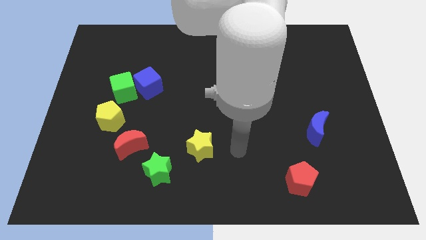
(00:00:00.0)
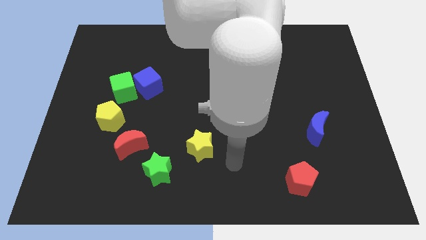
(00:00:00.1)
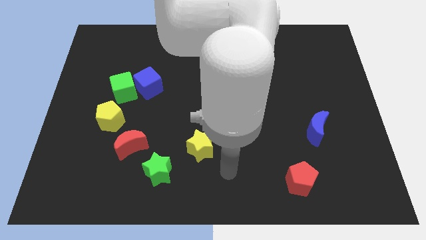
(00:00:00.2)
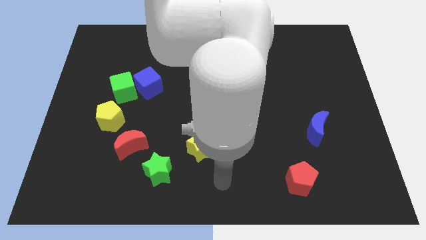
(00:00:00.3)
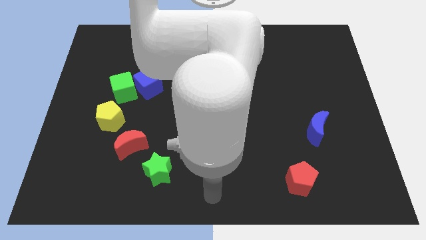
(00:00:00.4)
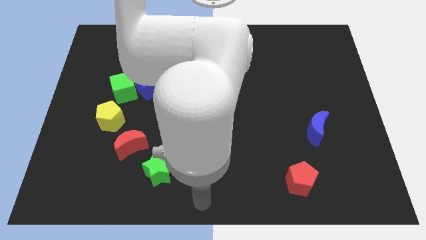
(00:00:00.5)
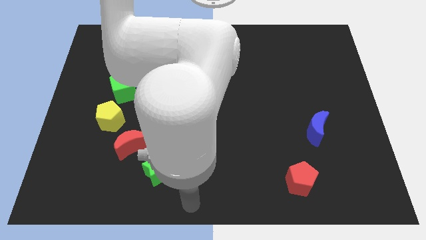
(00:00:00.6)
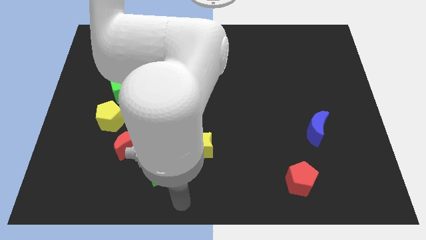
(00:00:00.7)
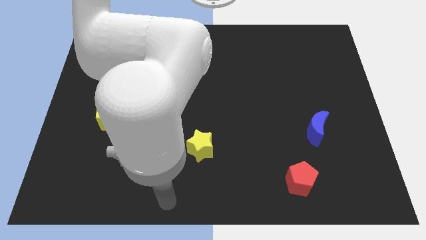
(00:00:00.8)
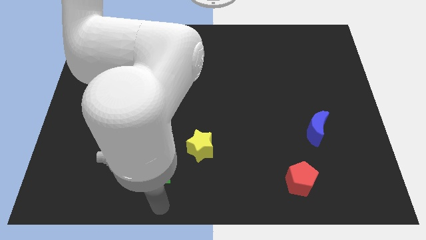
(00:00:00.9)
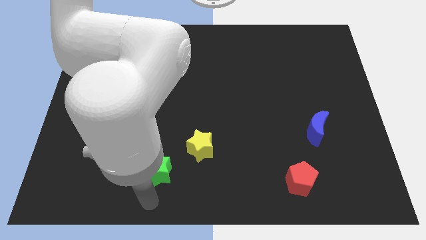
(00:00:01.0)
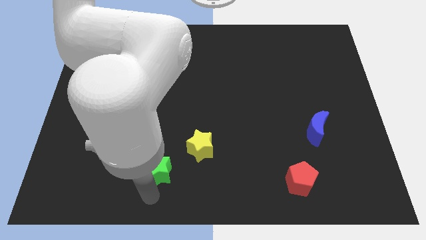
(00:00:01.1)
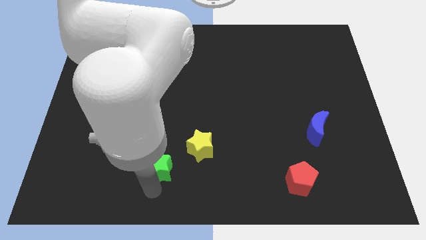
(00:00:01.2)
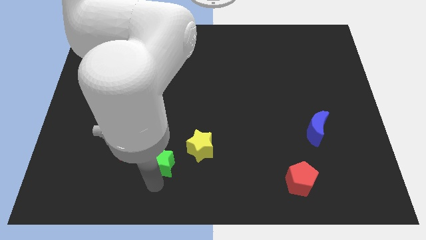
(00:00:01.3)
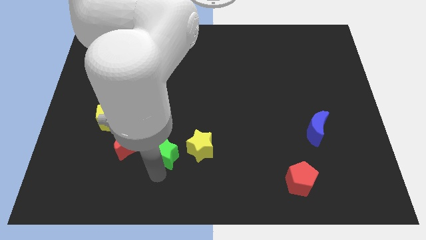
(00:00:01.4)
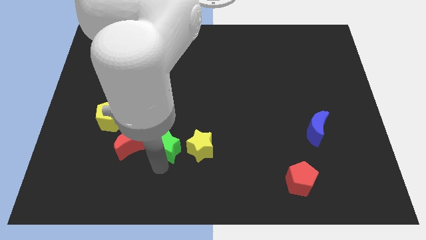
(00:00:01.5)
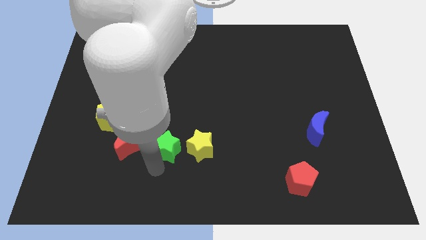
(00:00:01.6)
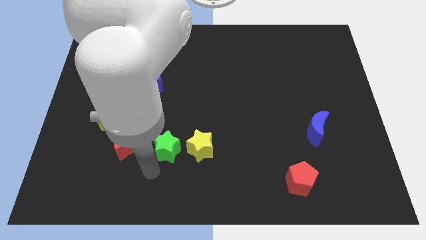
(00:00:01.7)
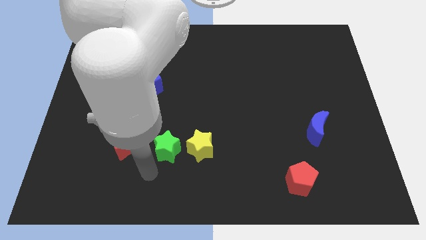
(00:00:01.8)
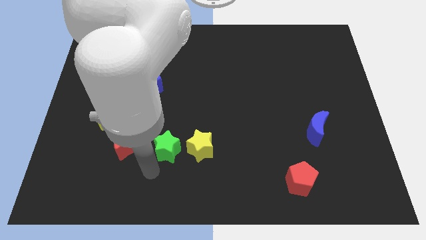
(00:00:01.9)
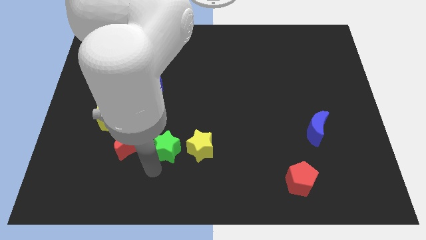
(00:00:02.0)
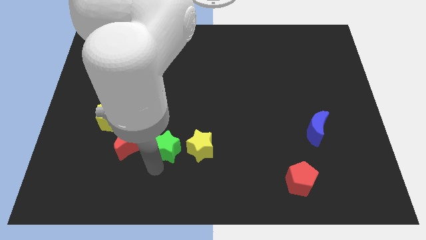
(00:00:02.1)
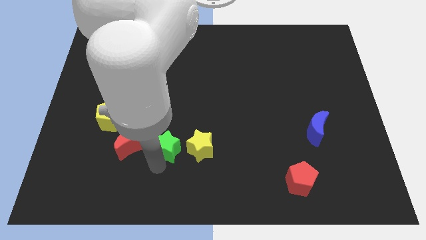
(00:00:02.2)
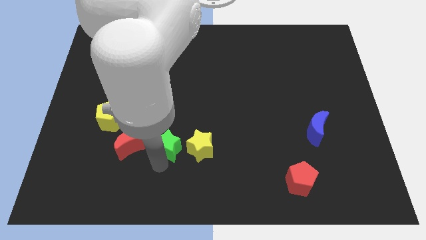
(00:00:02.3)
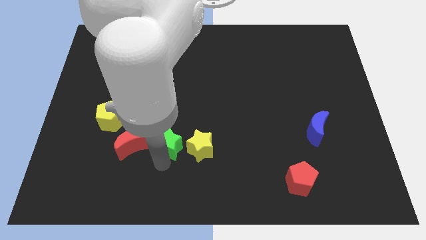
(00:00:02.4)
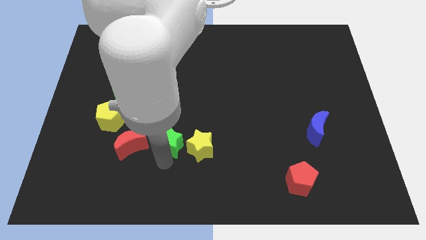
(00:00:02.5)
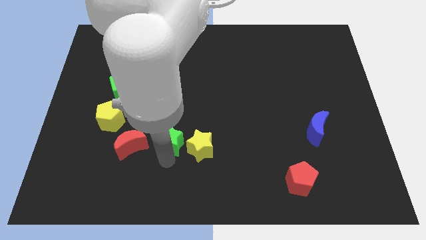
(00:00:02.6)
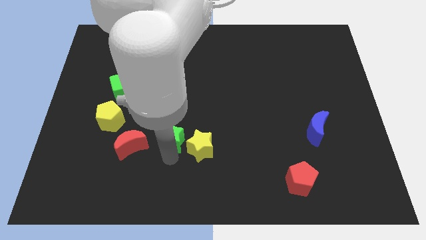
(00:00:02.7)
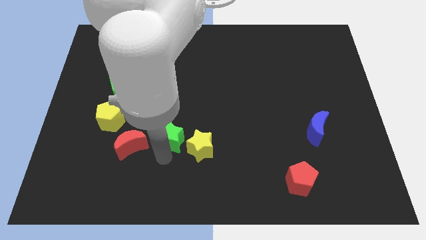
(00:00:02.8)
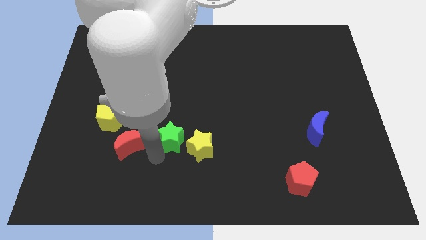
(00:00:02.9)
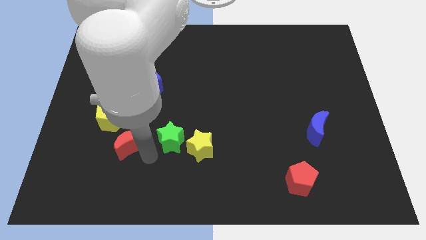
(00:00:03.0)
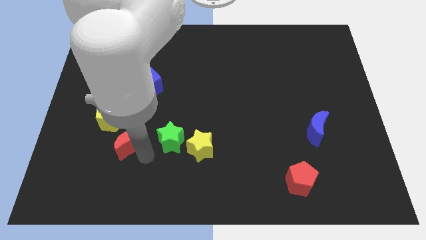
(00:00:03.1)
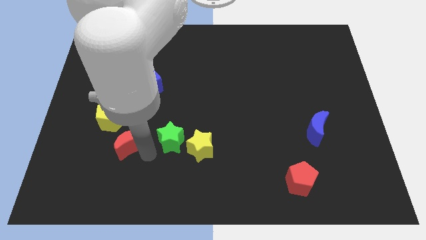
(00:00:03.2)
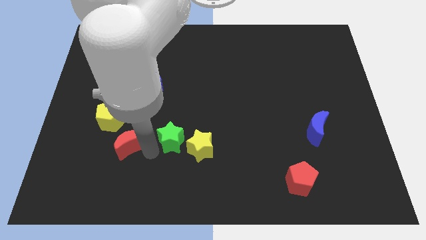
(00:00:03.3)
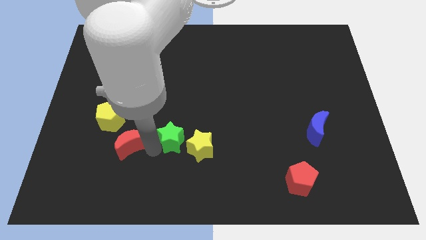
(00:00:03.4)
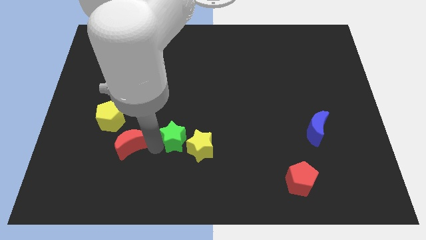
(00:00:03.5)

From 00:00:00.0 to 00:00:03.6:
slightly push the green star up and then to the right

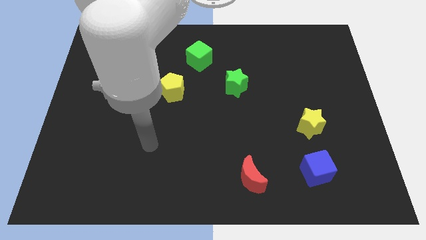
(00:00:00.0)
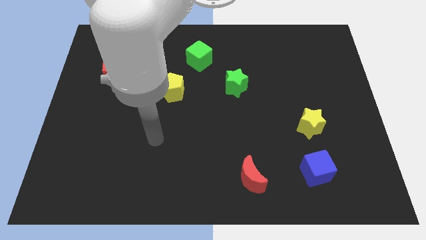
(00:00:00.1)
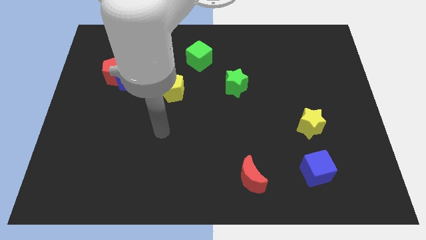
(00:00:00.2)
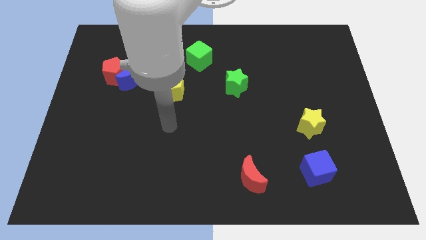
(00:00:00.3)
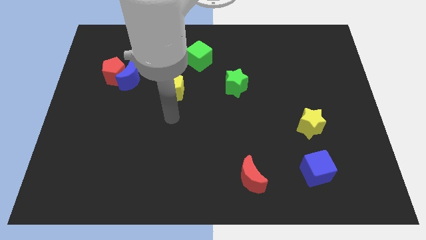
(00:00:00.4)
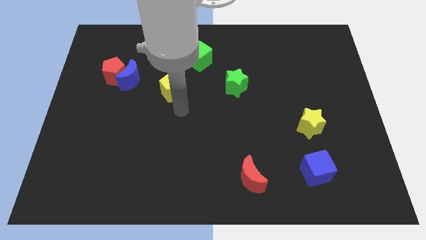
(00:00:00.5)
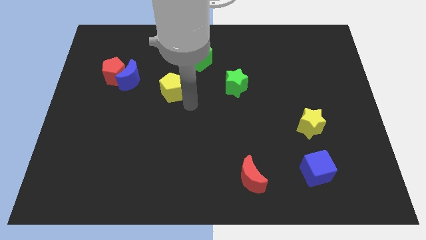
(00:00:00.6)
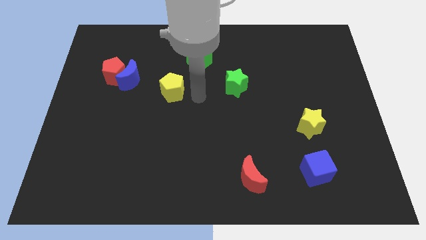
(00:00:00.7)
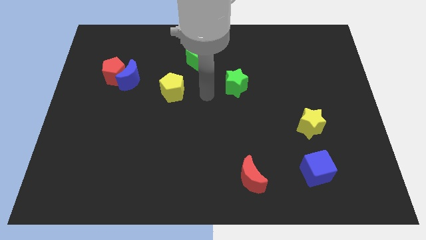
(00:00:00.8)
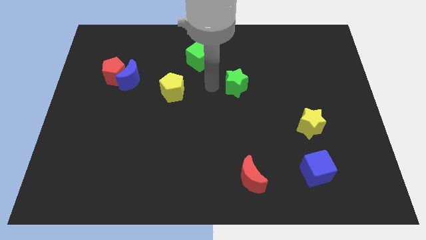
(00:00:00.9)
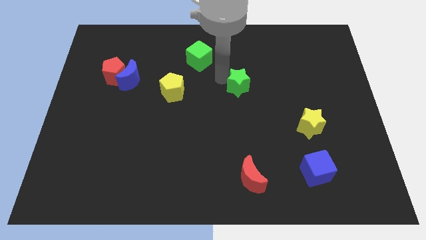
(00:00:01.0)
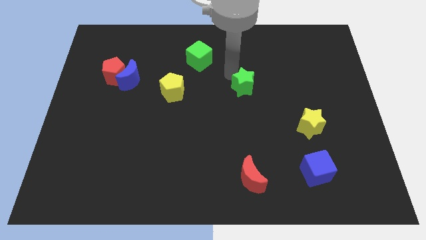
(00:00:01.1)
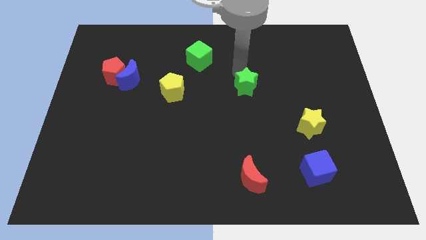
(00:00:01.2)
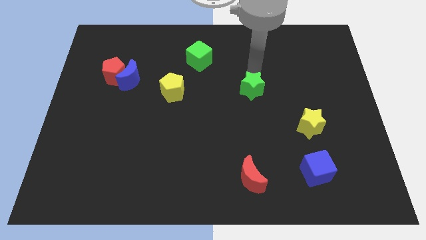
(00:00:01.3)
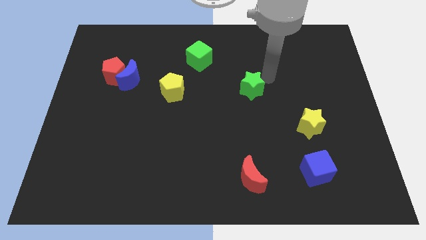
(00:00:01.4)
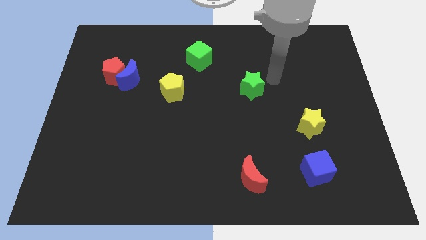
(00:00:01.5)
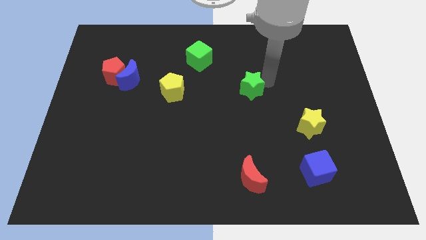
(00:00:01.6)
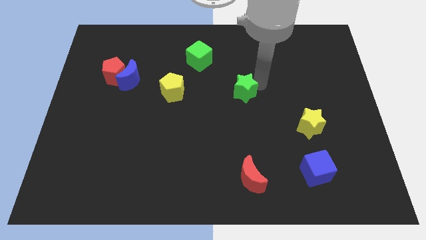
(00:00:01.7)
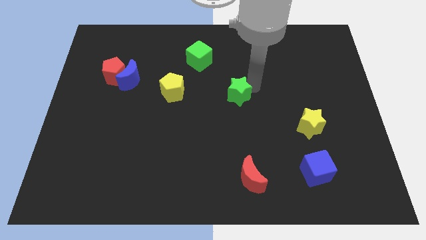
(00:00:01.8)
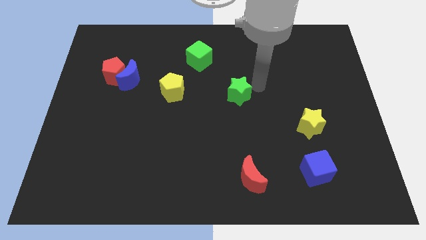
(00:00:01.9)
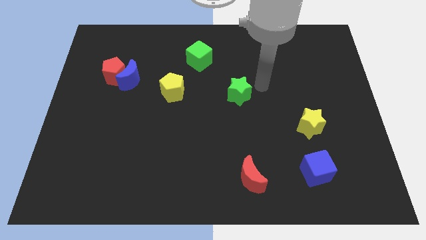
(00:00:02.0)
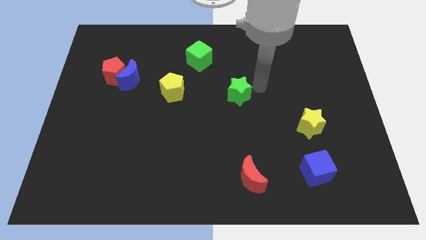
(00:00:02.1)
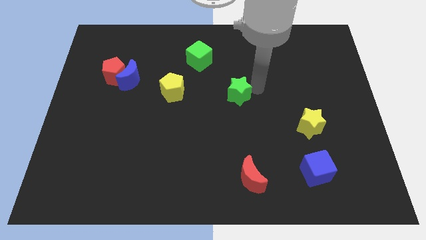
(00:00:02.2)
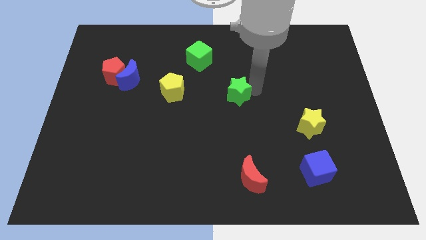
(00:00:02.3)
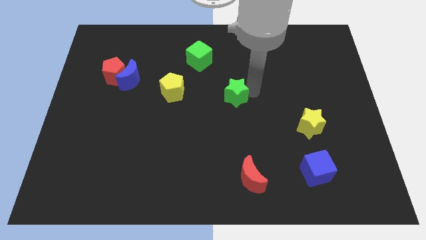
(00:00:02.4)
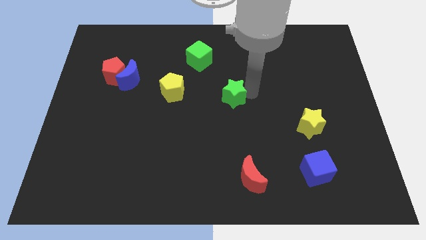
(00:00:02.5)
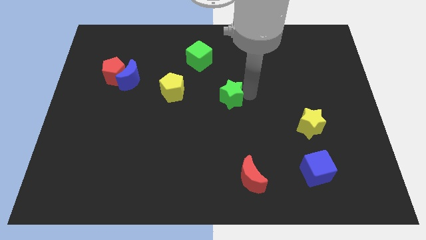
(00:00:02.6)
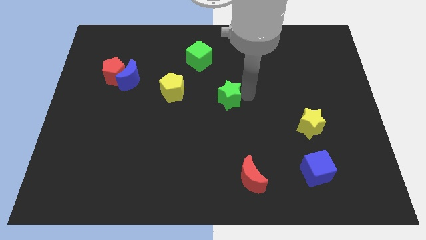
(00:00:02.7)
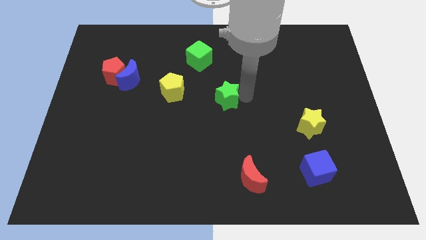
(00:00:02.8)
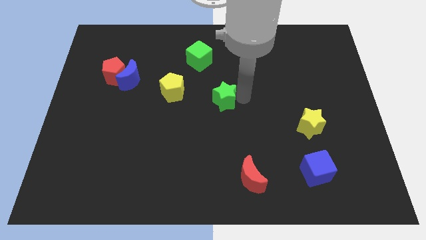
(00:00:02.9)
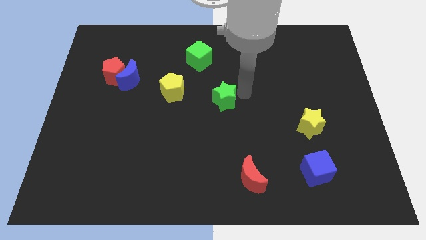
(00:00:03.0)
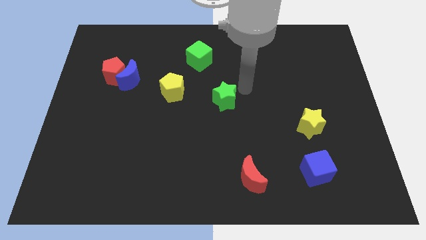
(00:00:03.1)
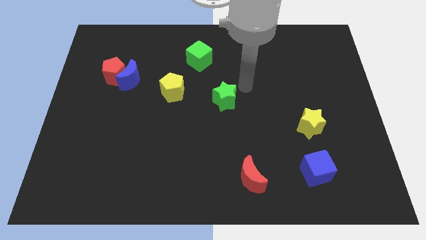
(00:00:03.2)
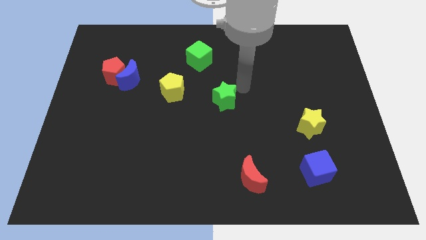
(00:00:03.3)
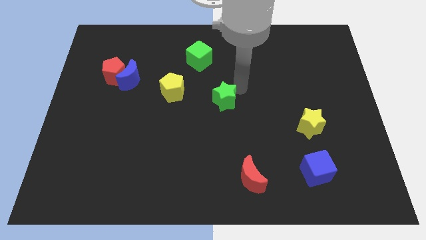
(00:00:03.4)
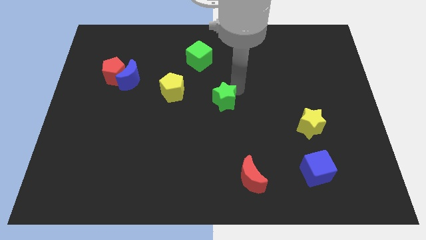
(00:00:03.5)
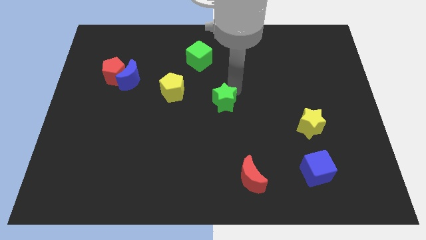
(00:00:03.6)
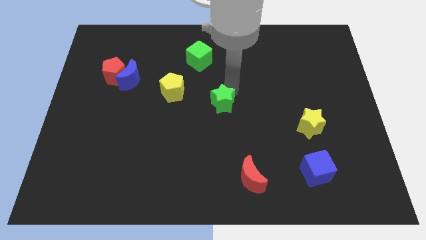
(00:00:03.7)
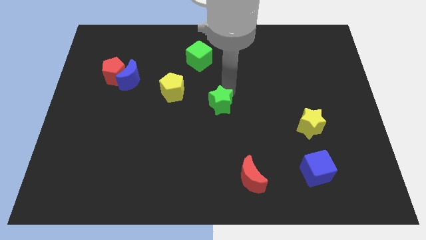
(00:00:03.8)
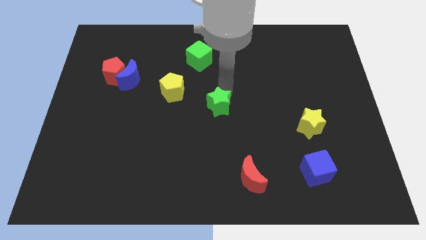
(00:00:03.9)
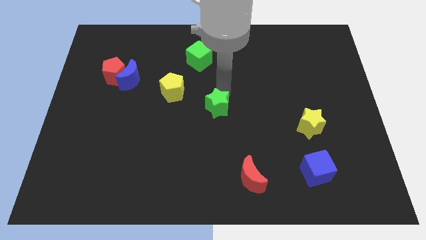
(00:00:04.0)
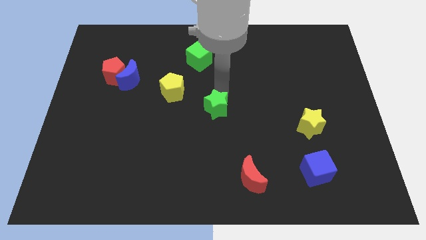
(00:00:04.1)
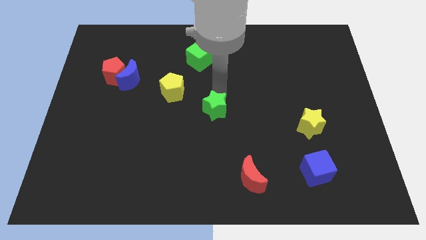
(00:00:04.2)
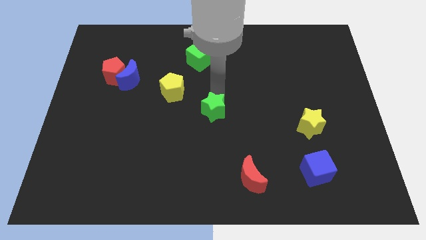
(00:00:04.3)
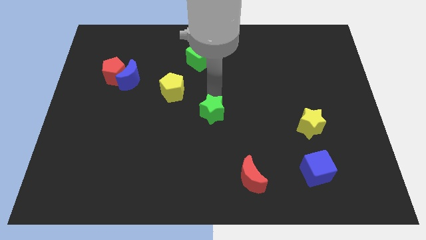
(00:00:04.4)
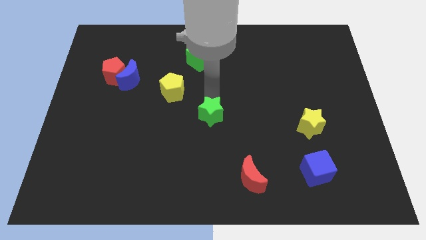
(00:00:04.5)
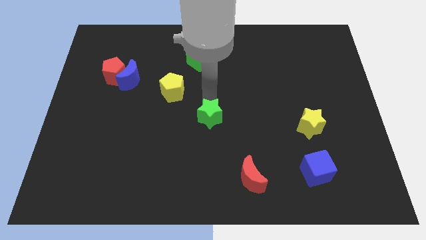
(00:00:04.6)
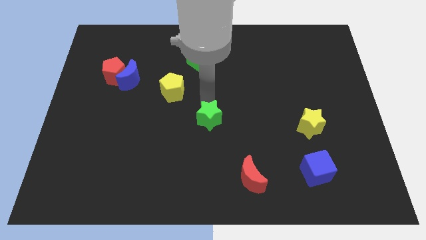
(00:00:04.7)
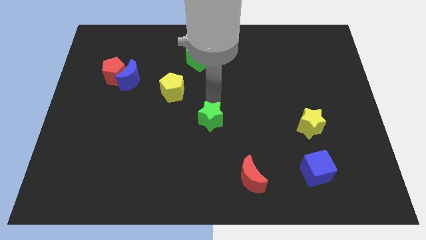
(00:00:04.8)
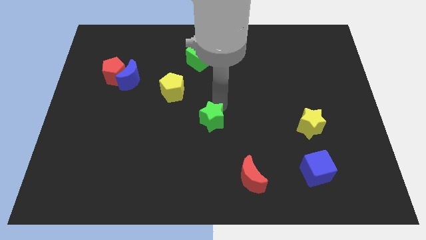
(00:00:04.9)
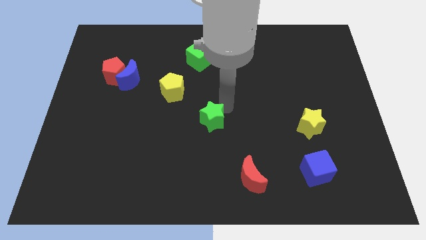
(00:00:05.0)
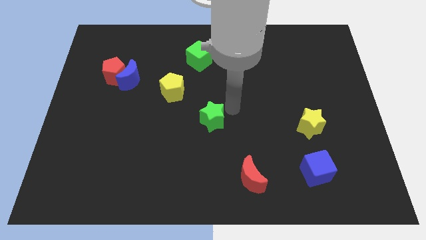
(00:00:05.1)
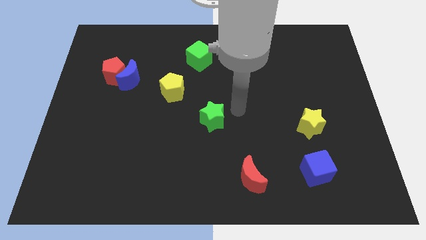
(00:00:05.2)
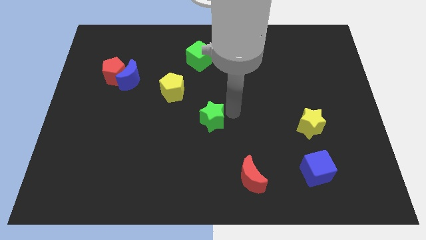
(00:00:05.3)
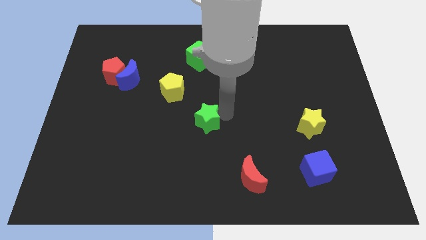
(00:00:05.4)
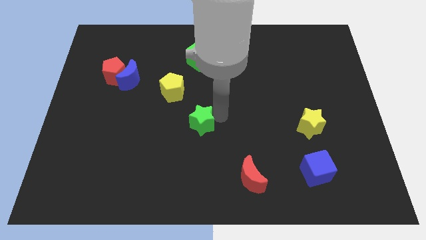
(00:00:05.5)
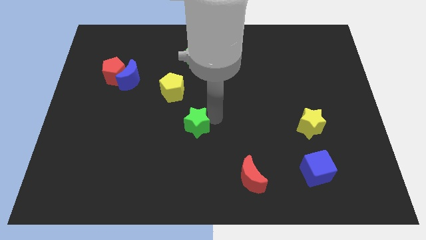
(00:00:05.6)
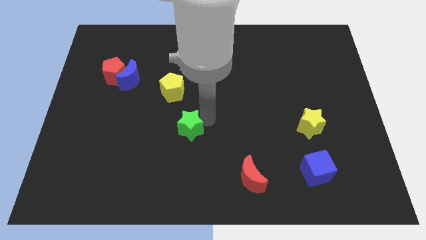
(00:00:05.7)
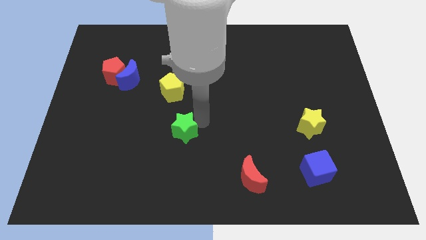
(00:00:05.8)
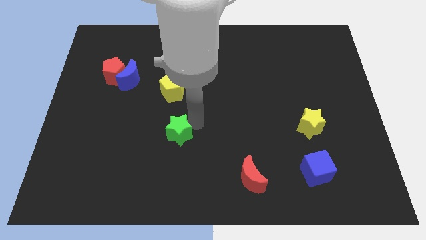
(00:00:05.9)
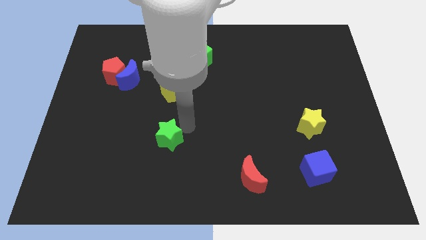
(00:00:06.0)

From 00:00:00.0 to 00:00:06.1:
push the green star down and left
